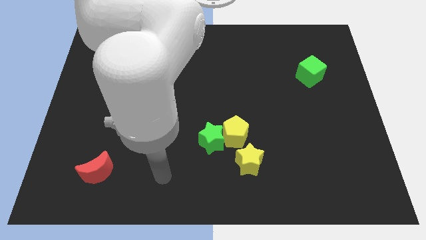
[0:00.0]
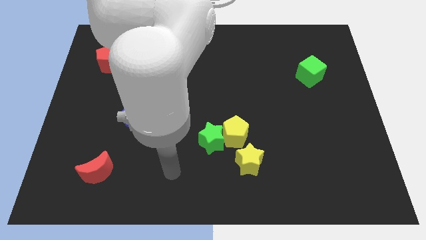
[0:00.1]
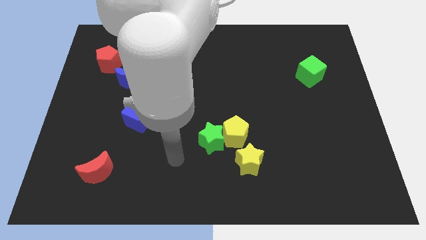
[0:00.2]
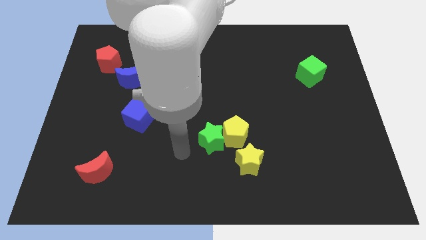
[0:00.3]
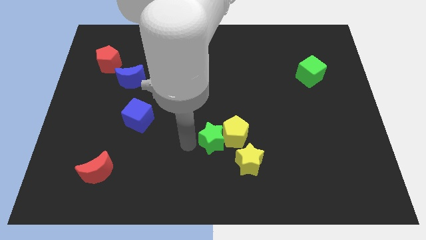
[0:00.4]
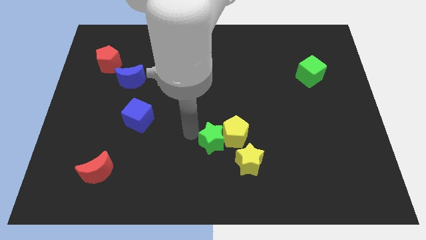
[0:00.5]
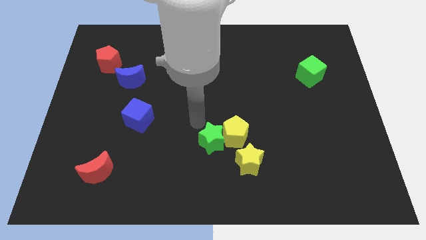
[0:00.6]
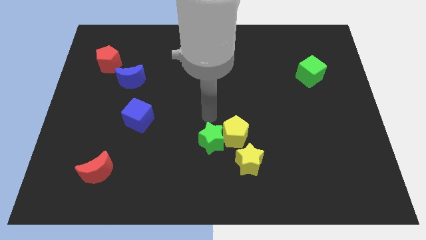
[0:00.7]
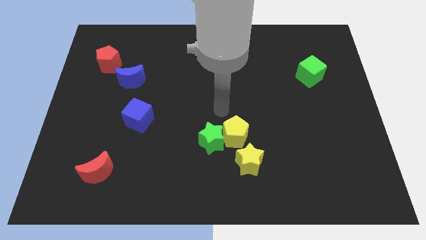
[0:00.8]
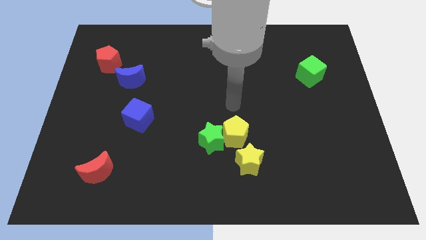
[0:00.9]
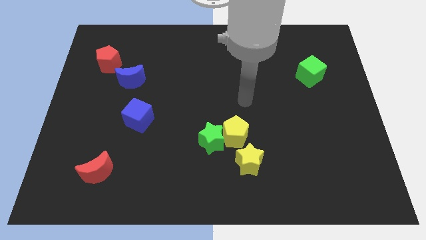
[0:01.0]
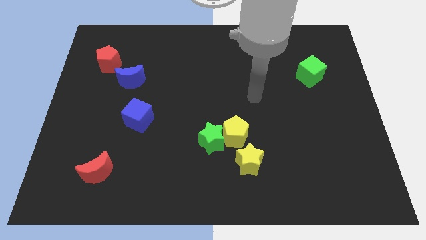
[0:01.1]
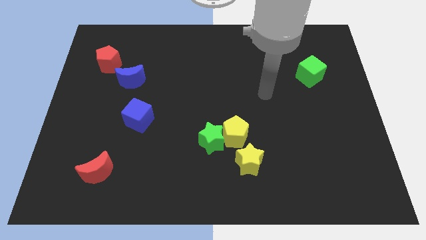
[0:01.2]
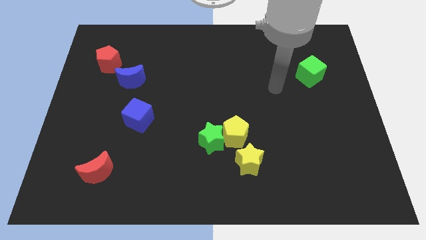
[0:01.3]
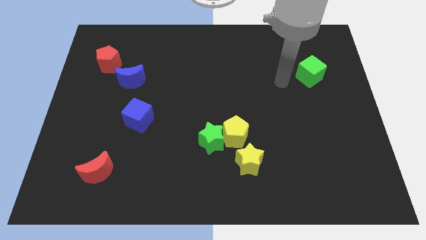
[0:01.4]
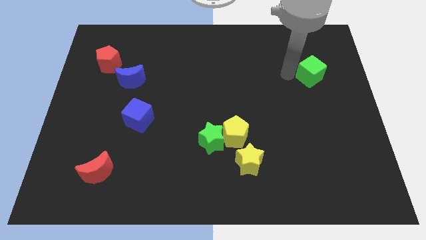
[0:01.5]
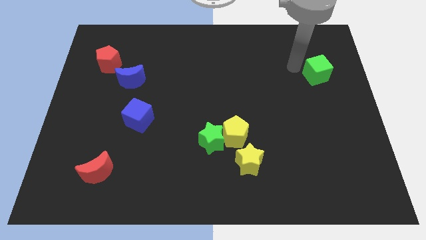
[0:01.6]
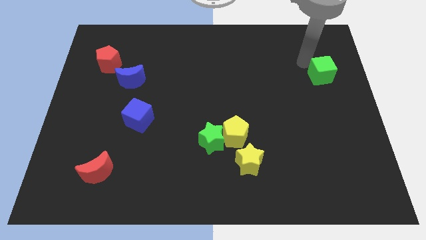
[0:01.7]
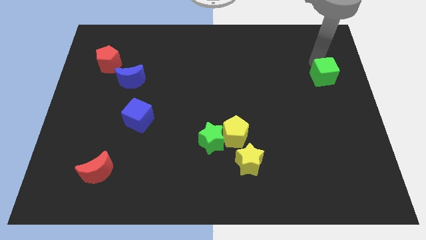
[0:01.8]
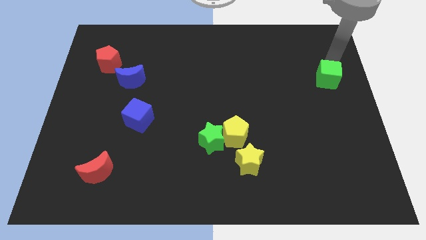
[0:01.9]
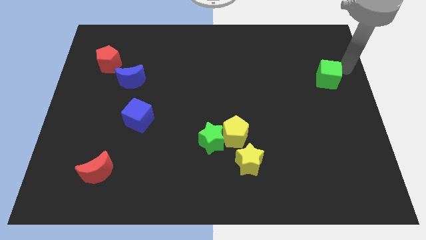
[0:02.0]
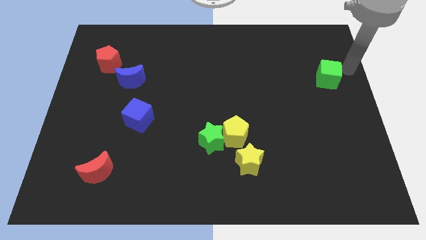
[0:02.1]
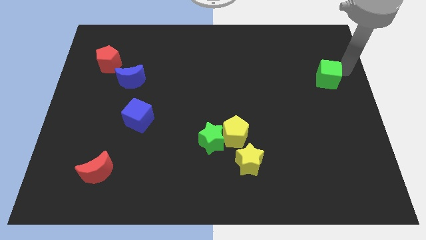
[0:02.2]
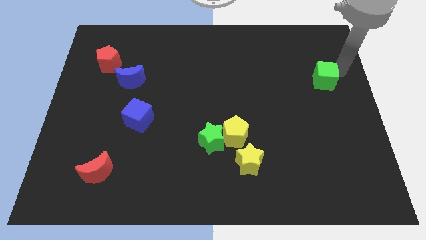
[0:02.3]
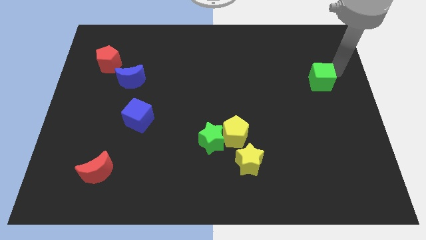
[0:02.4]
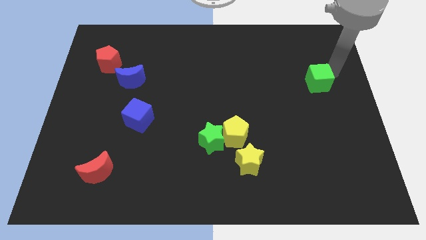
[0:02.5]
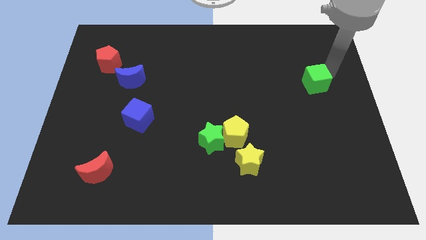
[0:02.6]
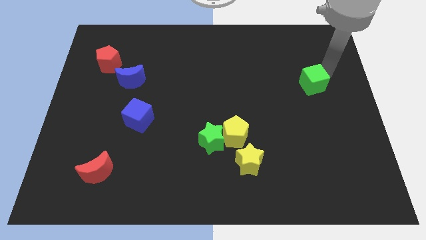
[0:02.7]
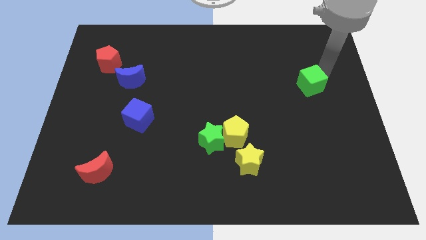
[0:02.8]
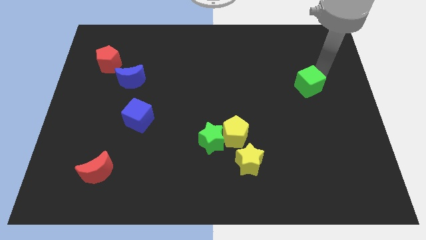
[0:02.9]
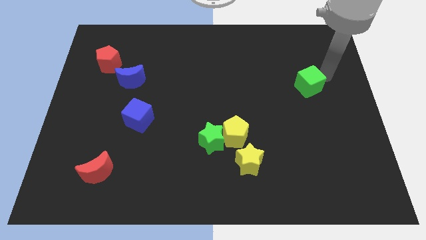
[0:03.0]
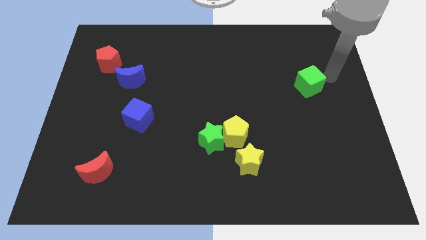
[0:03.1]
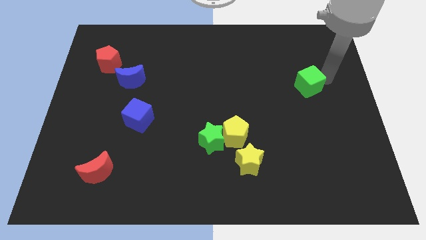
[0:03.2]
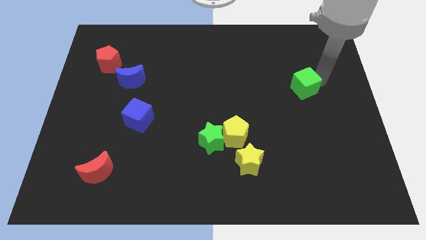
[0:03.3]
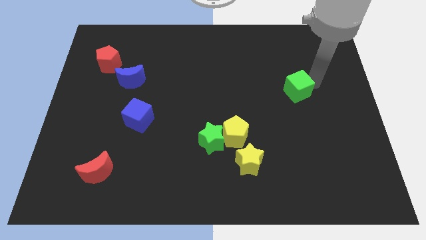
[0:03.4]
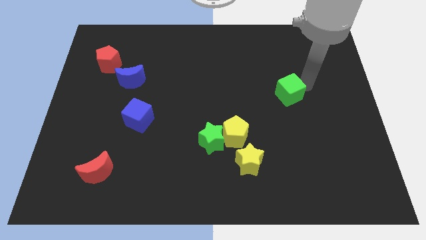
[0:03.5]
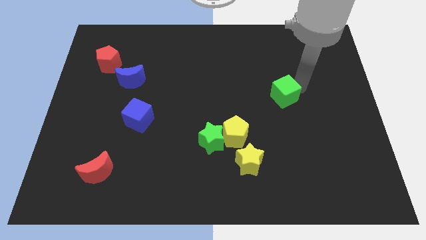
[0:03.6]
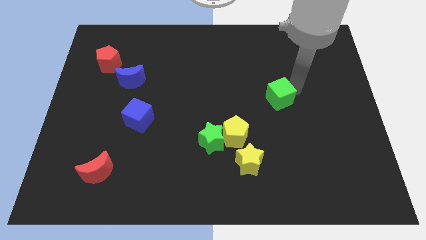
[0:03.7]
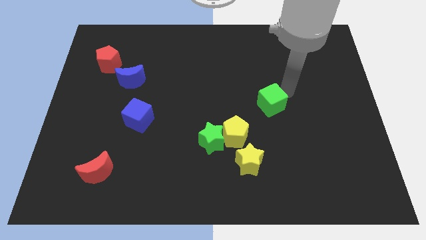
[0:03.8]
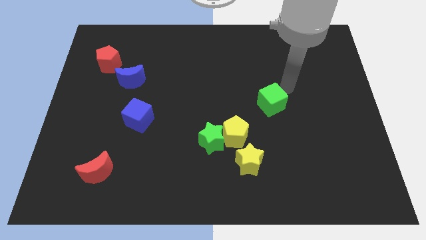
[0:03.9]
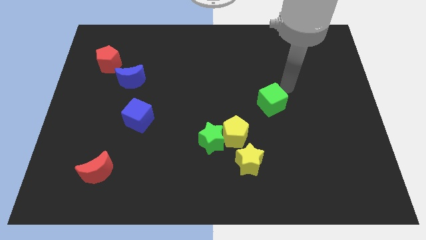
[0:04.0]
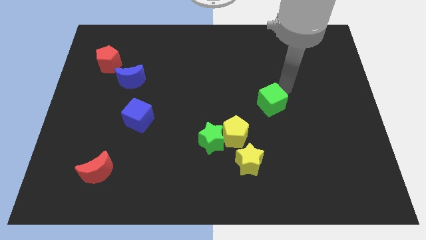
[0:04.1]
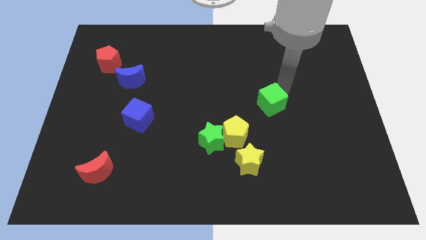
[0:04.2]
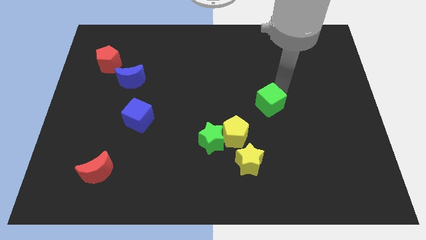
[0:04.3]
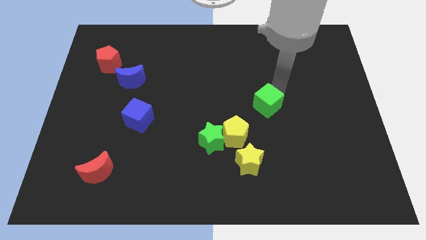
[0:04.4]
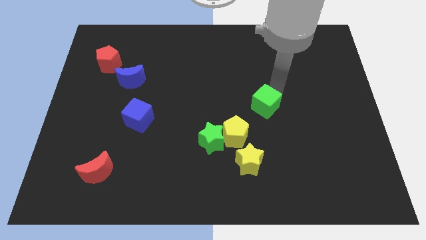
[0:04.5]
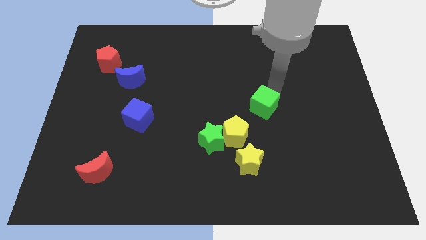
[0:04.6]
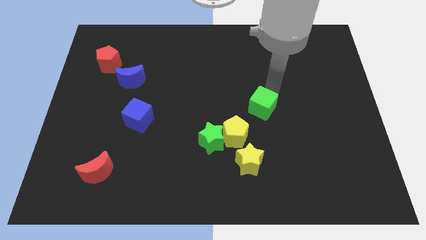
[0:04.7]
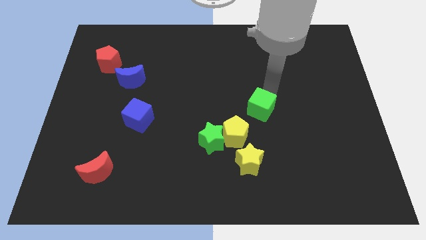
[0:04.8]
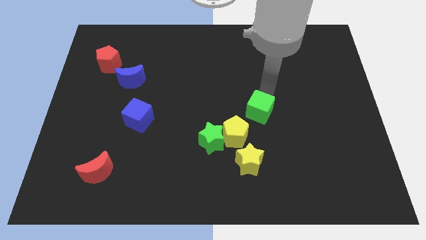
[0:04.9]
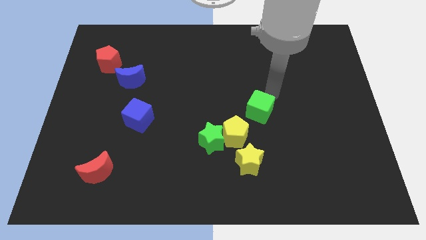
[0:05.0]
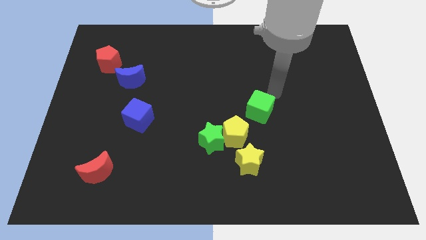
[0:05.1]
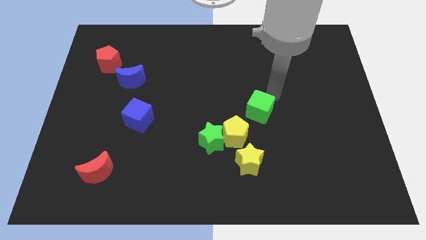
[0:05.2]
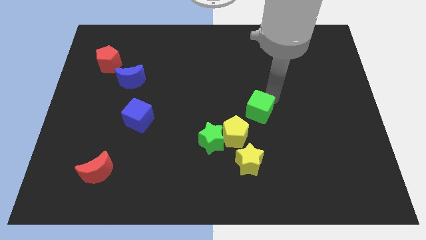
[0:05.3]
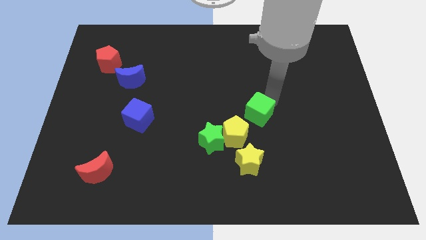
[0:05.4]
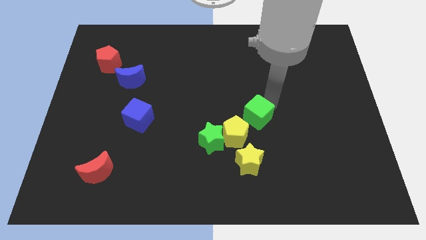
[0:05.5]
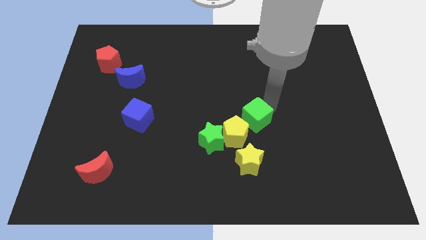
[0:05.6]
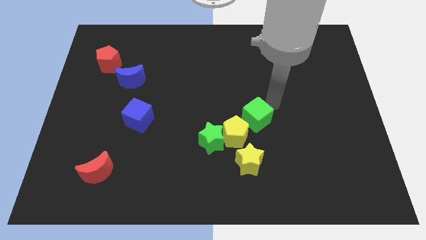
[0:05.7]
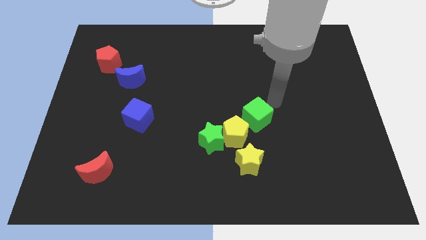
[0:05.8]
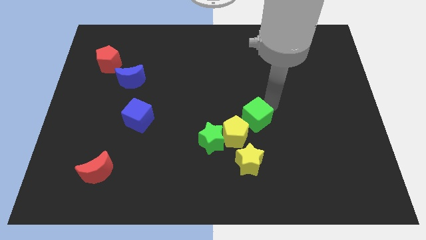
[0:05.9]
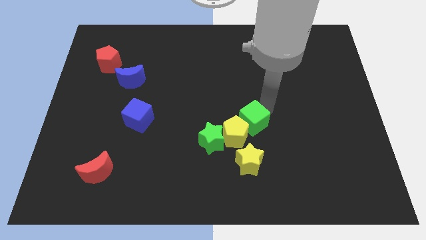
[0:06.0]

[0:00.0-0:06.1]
slide the green cube to the yellow pentagon

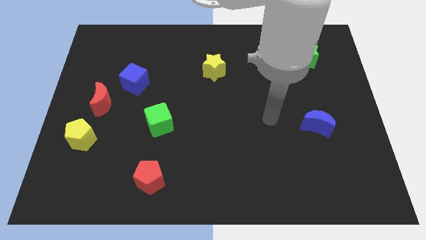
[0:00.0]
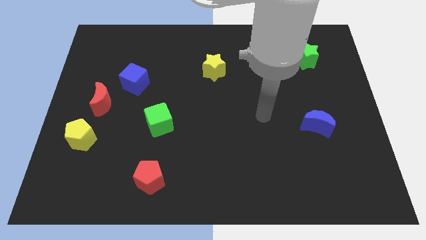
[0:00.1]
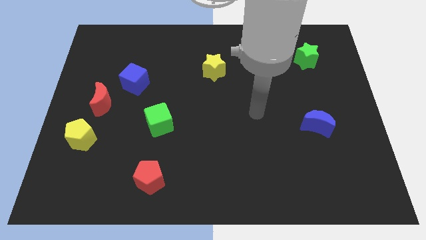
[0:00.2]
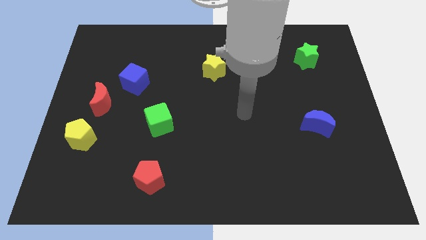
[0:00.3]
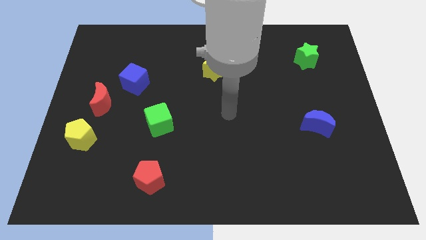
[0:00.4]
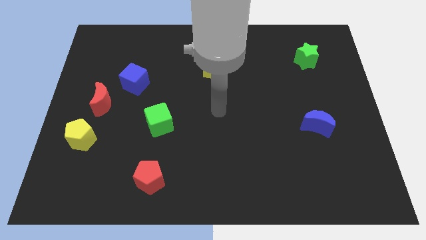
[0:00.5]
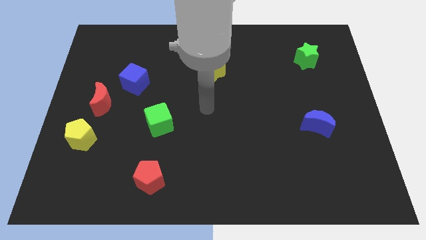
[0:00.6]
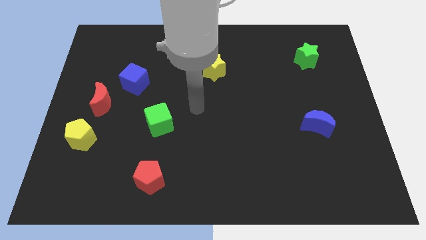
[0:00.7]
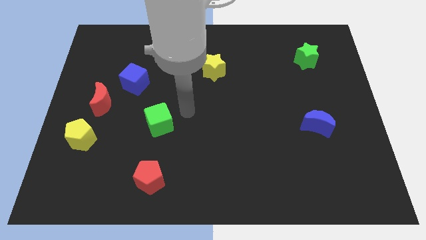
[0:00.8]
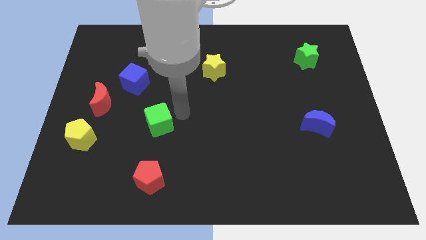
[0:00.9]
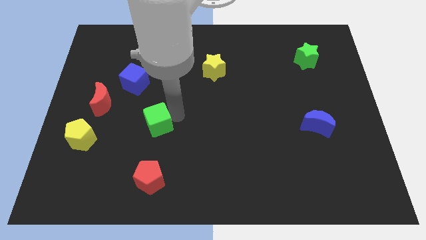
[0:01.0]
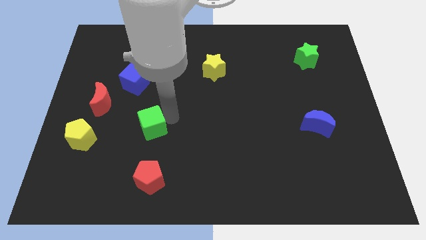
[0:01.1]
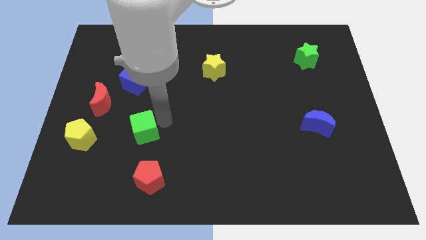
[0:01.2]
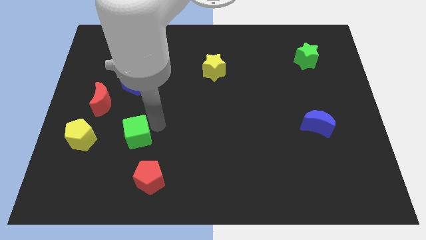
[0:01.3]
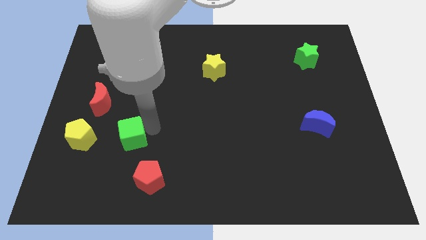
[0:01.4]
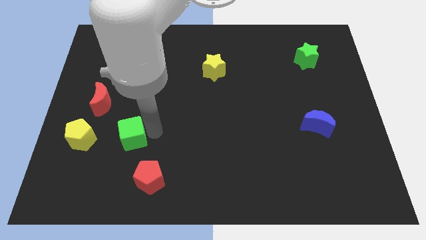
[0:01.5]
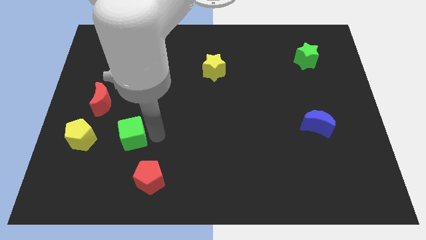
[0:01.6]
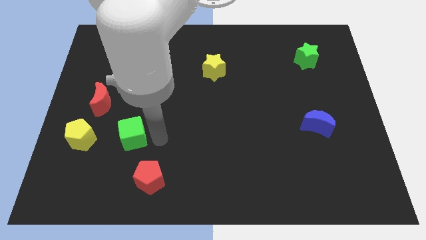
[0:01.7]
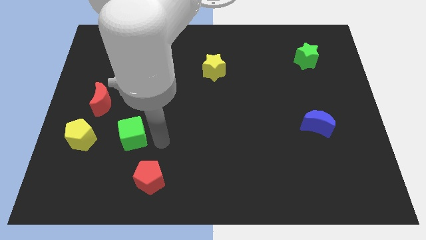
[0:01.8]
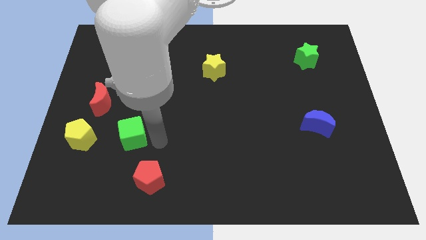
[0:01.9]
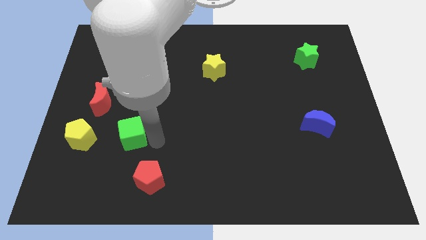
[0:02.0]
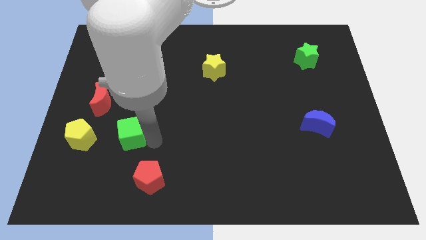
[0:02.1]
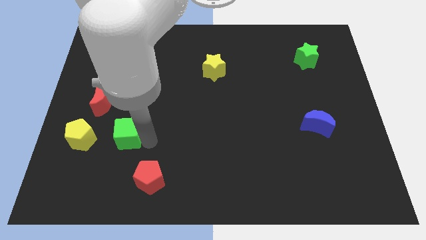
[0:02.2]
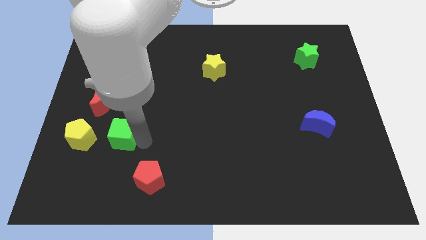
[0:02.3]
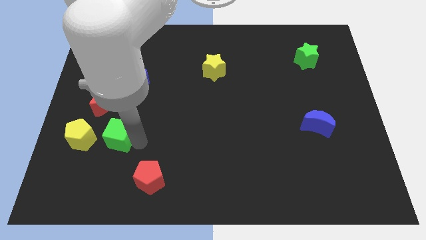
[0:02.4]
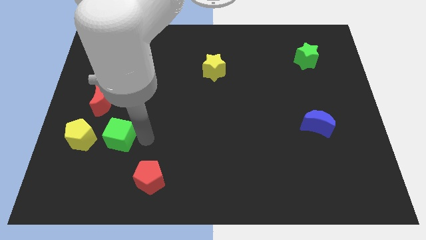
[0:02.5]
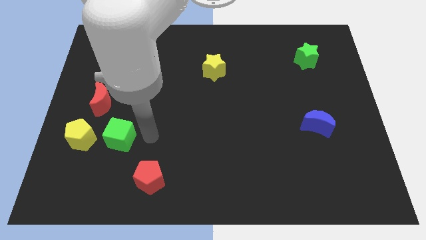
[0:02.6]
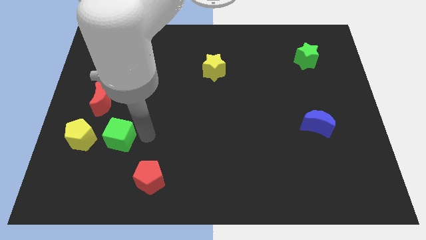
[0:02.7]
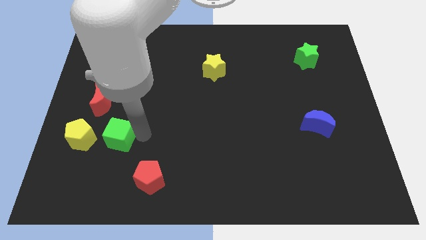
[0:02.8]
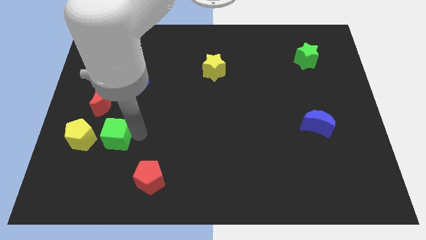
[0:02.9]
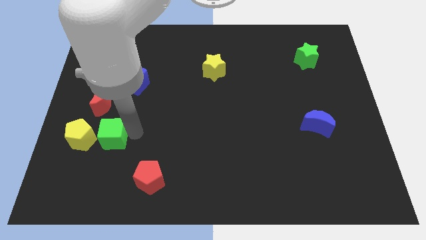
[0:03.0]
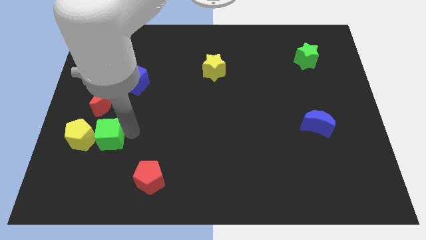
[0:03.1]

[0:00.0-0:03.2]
move the green cube towards the yellow pentagon
